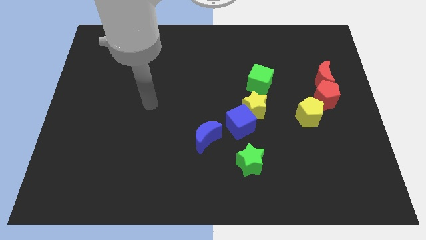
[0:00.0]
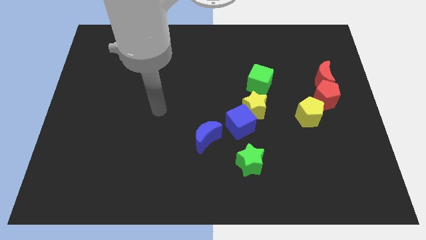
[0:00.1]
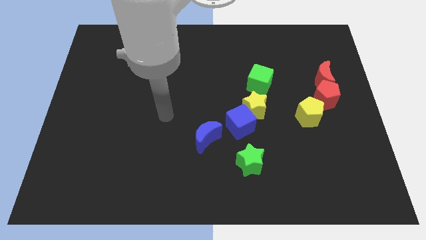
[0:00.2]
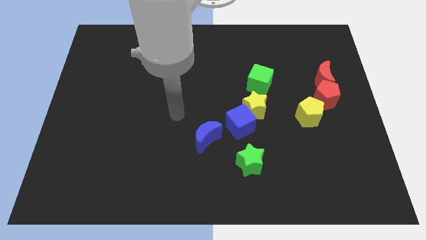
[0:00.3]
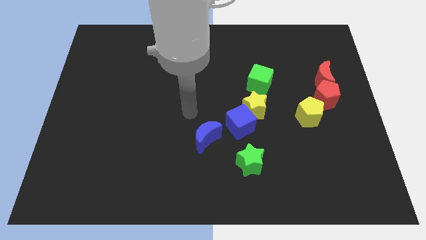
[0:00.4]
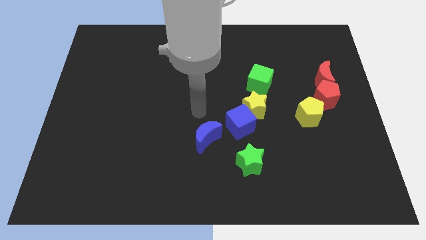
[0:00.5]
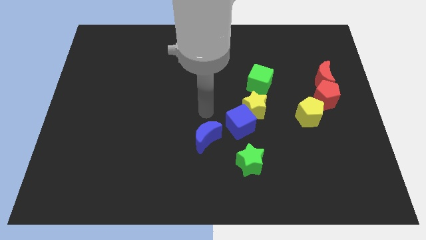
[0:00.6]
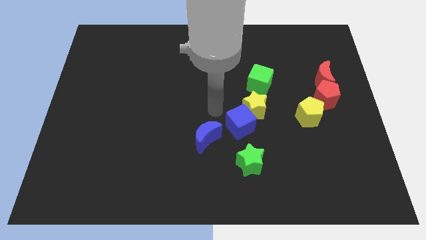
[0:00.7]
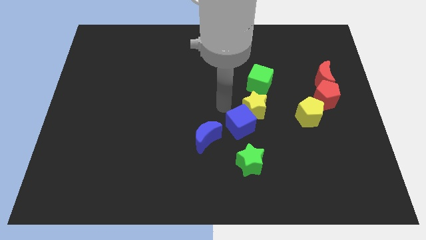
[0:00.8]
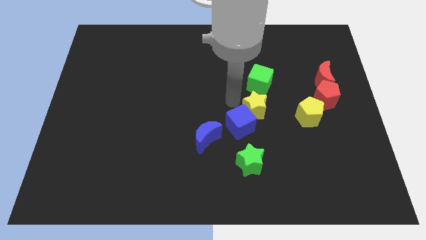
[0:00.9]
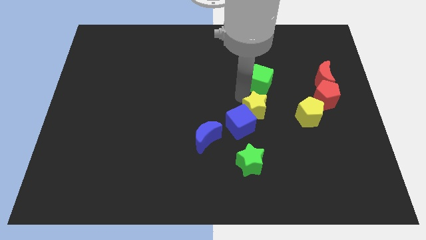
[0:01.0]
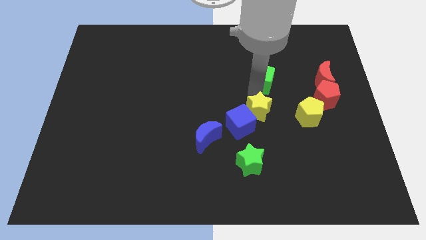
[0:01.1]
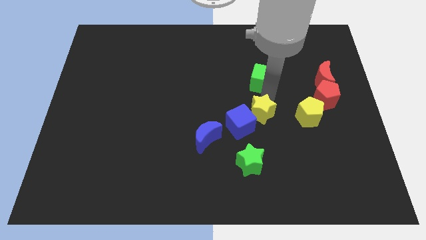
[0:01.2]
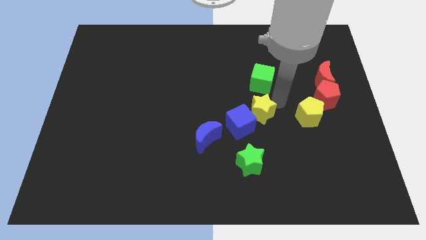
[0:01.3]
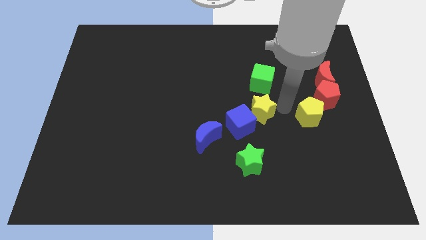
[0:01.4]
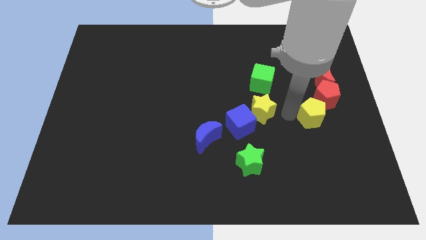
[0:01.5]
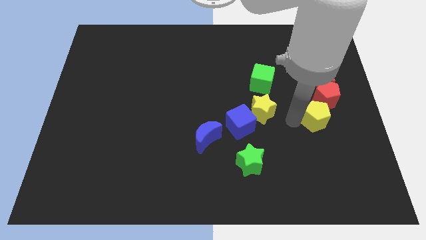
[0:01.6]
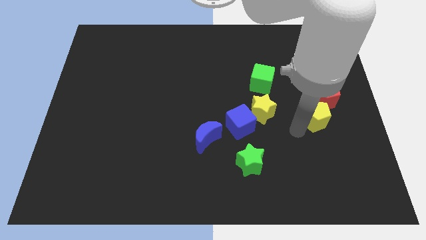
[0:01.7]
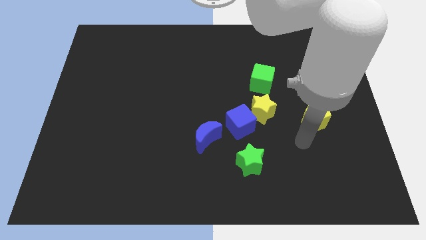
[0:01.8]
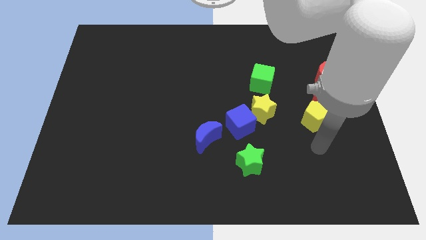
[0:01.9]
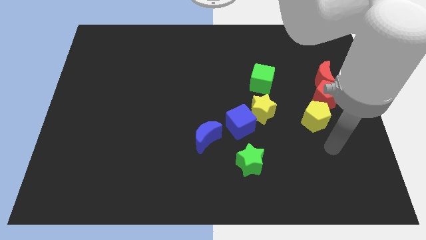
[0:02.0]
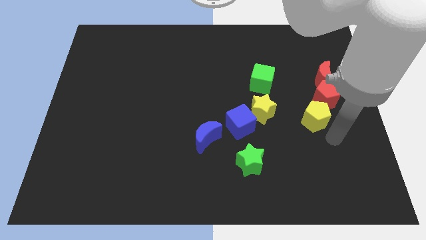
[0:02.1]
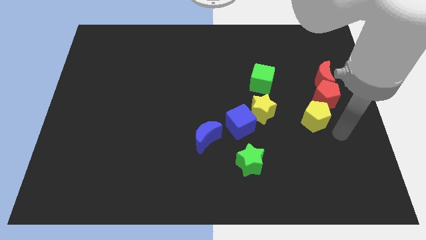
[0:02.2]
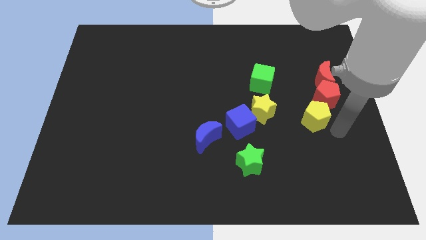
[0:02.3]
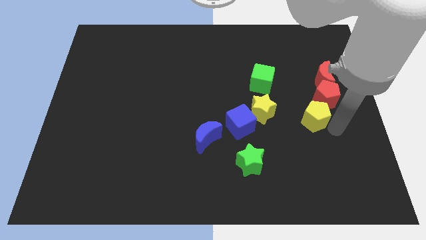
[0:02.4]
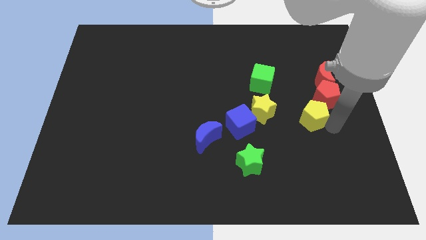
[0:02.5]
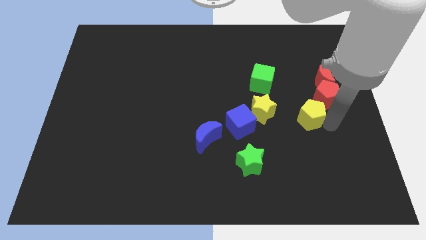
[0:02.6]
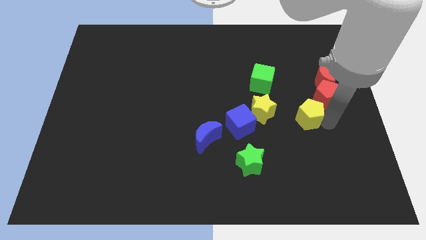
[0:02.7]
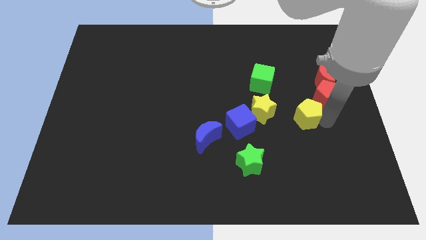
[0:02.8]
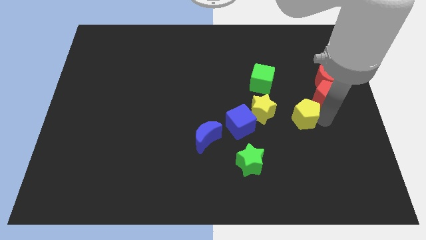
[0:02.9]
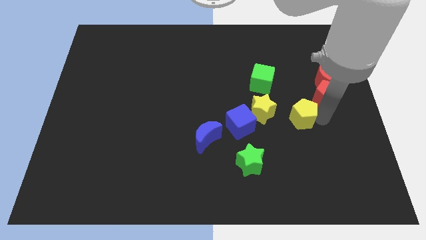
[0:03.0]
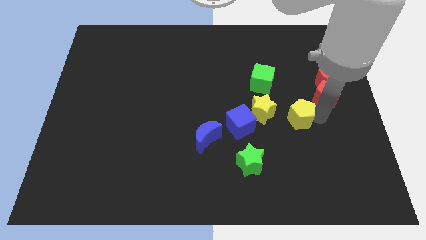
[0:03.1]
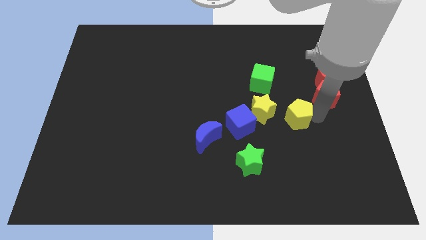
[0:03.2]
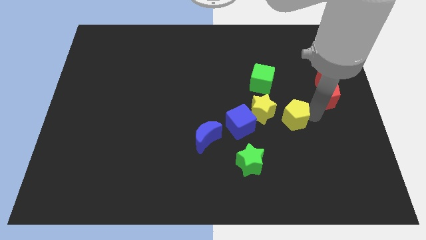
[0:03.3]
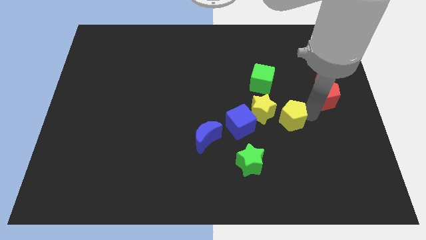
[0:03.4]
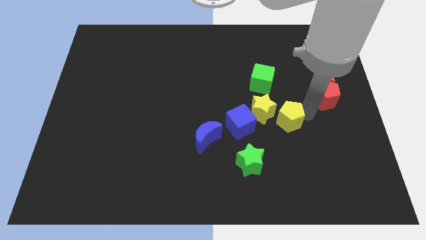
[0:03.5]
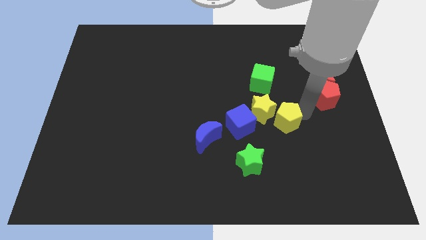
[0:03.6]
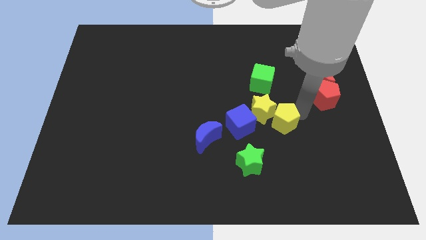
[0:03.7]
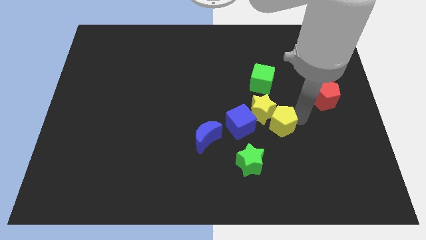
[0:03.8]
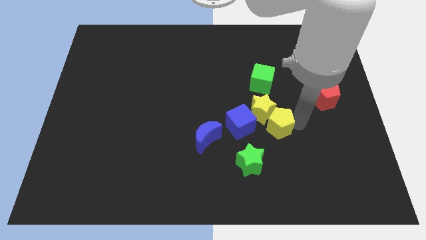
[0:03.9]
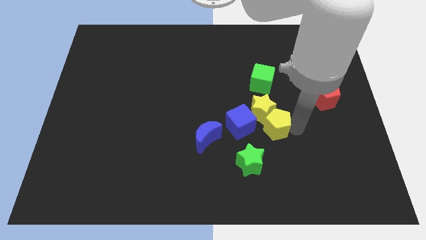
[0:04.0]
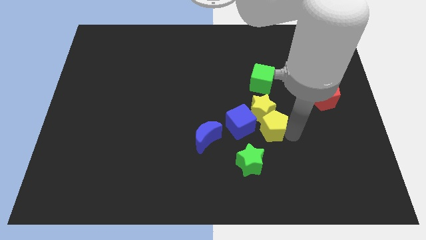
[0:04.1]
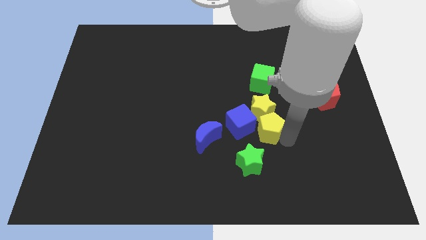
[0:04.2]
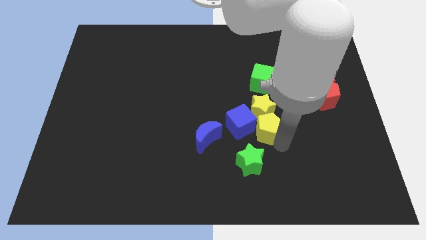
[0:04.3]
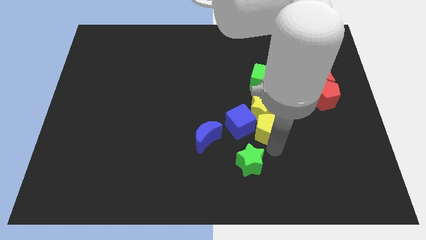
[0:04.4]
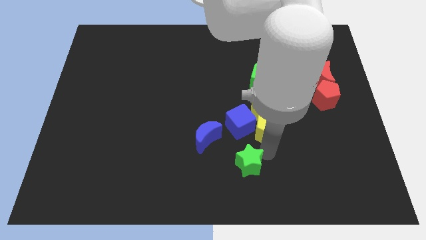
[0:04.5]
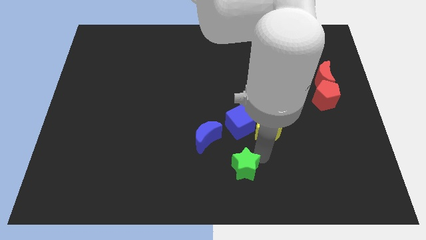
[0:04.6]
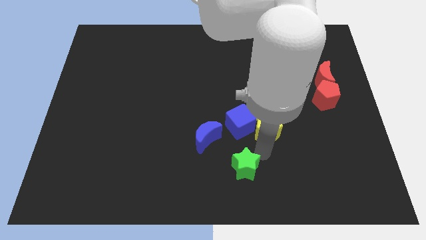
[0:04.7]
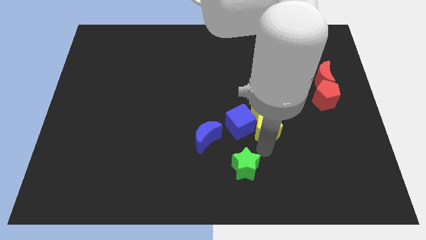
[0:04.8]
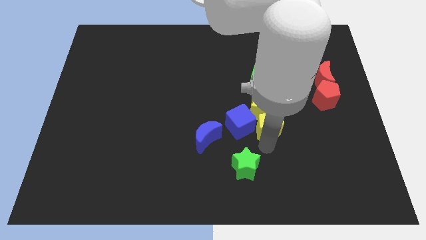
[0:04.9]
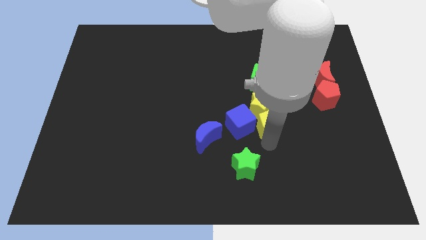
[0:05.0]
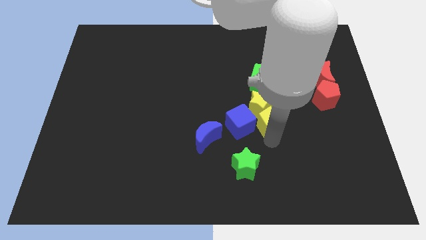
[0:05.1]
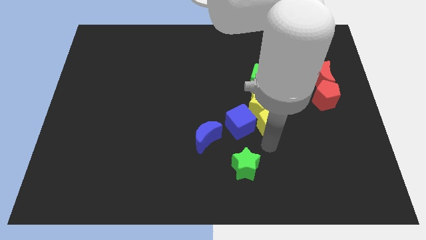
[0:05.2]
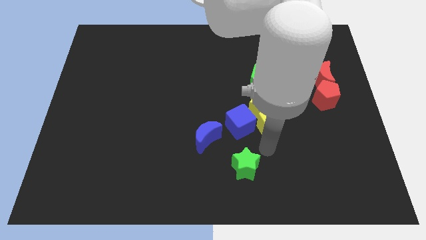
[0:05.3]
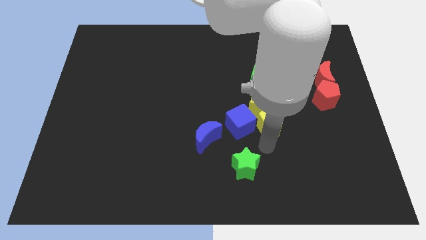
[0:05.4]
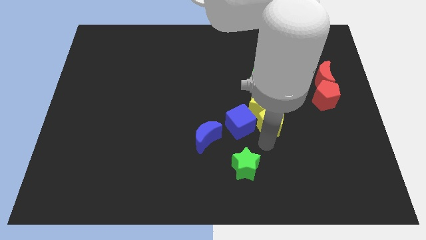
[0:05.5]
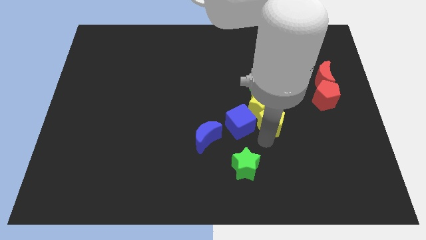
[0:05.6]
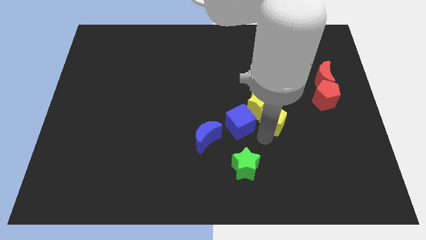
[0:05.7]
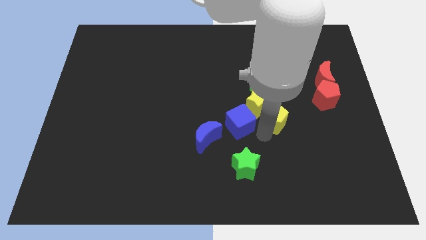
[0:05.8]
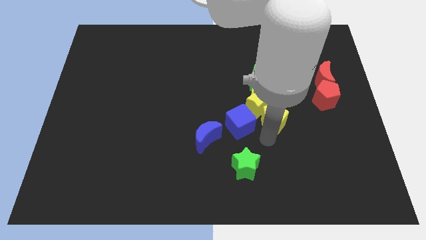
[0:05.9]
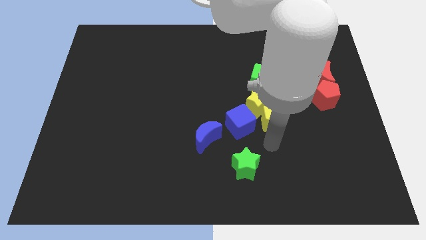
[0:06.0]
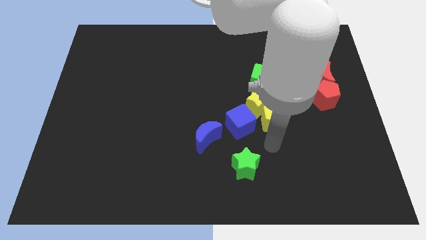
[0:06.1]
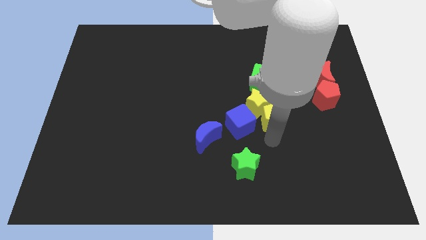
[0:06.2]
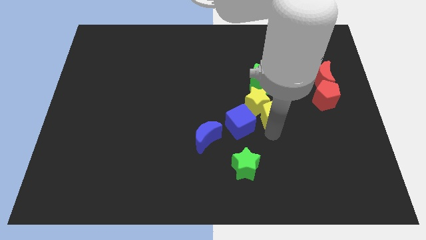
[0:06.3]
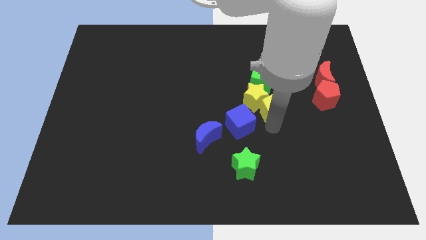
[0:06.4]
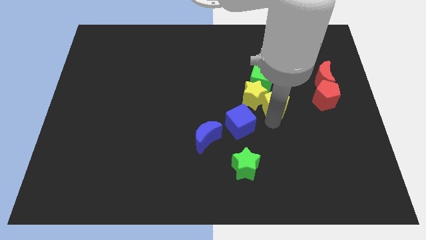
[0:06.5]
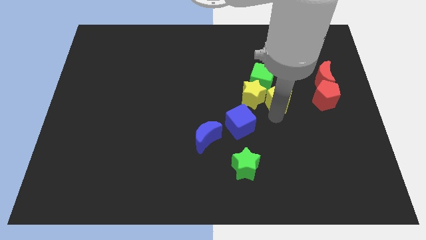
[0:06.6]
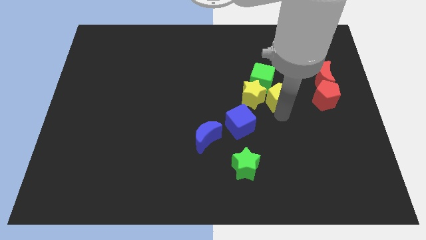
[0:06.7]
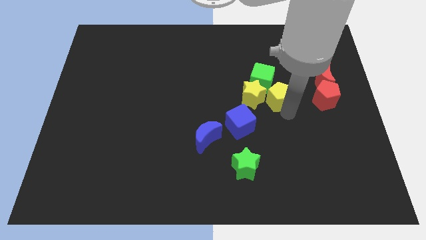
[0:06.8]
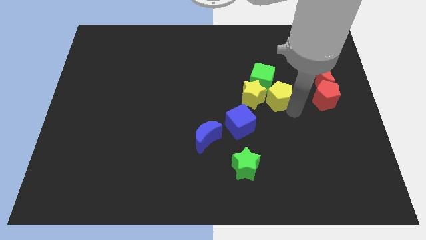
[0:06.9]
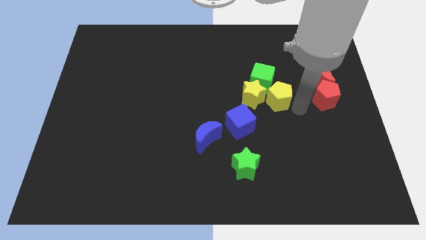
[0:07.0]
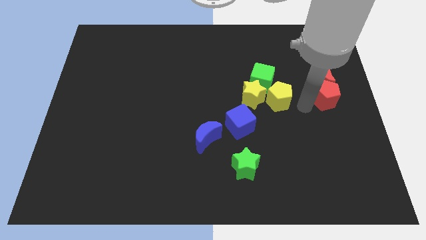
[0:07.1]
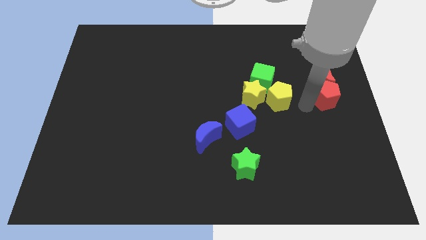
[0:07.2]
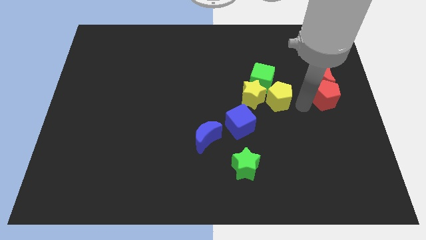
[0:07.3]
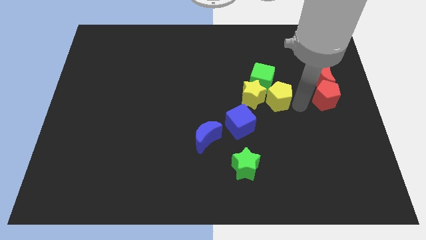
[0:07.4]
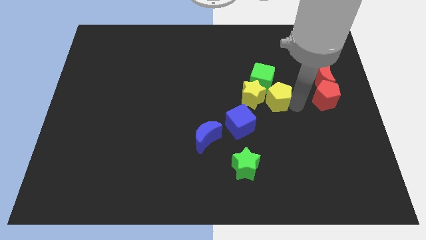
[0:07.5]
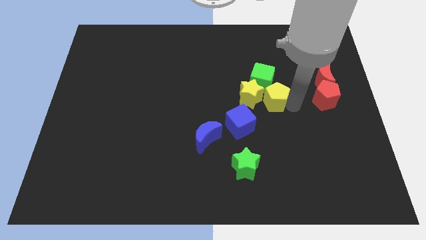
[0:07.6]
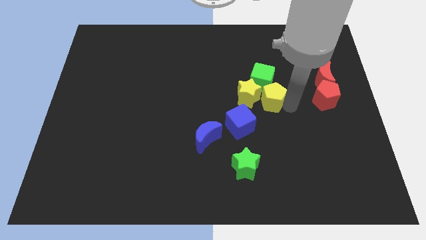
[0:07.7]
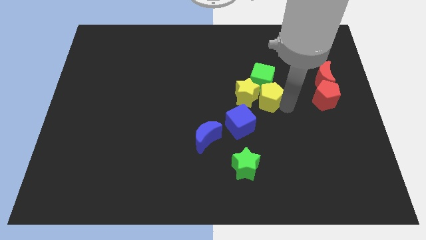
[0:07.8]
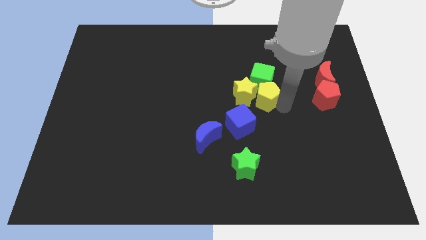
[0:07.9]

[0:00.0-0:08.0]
push the yellow pentagon to the middle of the board
